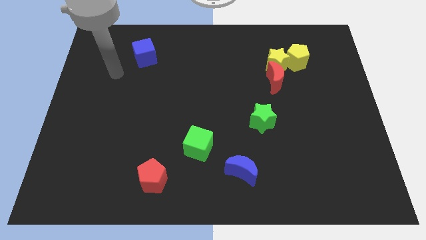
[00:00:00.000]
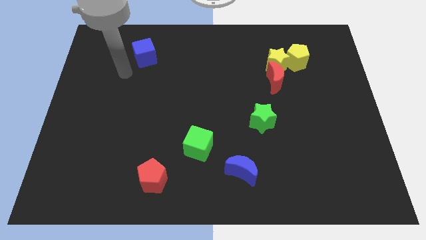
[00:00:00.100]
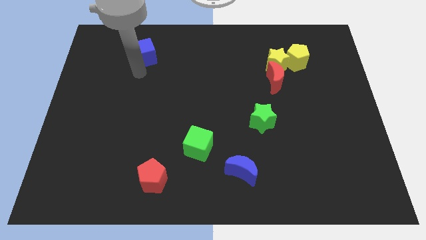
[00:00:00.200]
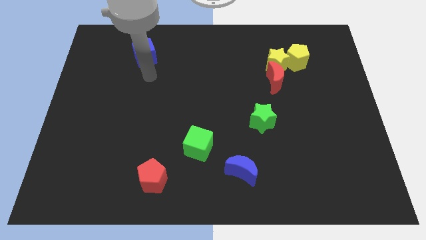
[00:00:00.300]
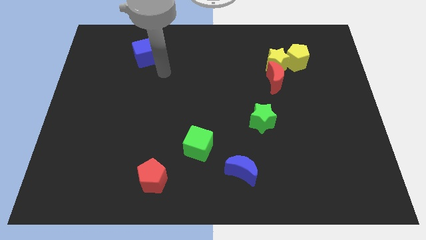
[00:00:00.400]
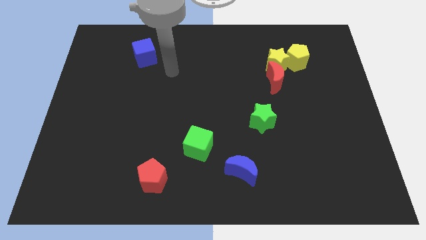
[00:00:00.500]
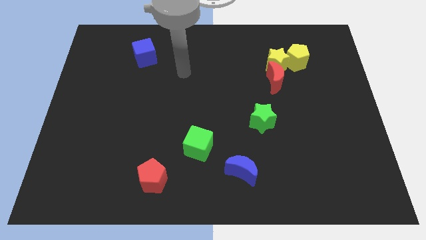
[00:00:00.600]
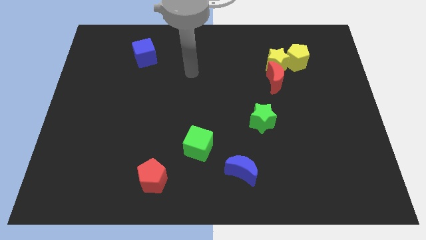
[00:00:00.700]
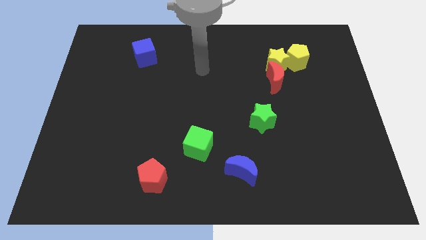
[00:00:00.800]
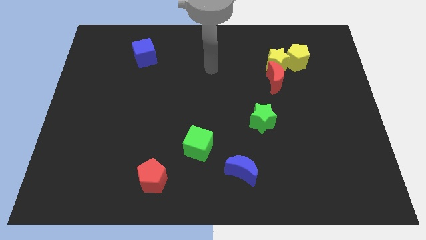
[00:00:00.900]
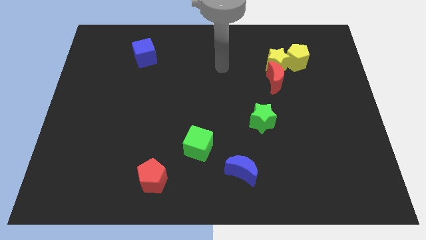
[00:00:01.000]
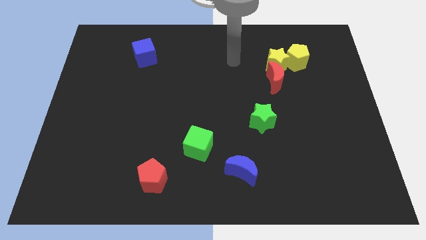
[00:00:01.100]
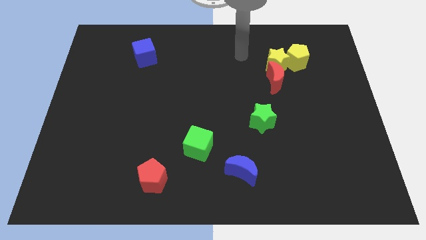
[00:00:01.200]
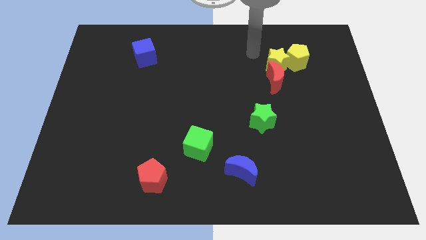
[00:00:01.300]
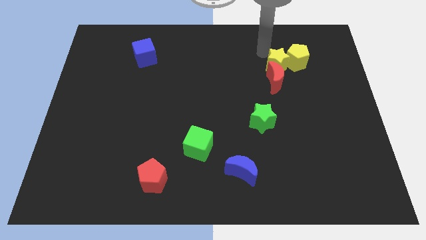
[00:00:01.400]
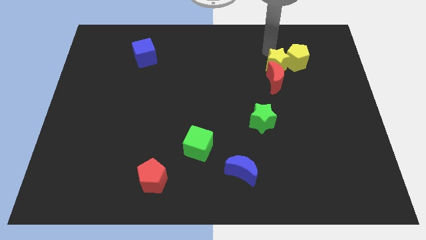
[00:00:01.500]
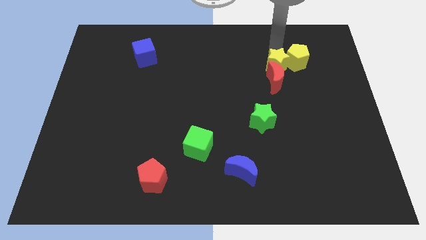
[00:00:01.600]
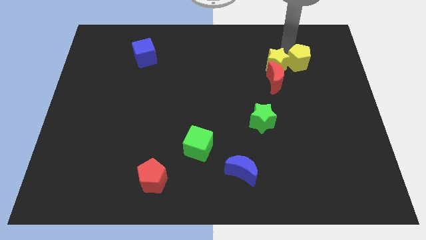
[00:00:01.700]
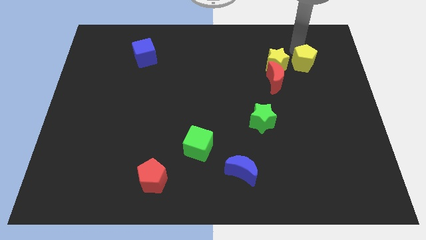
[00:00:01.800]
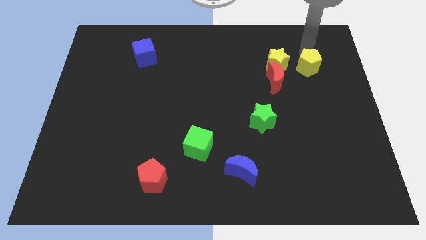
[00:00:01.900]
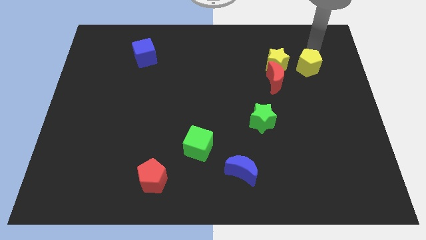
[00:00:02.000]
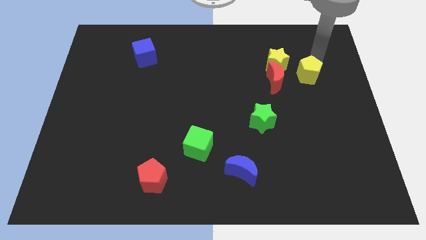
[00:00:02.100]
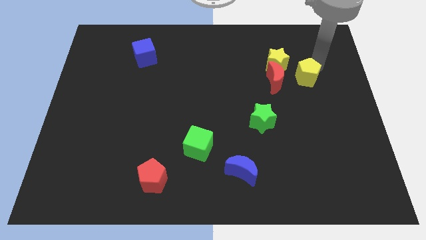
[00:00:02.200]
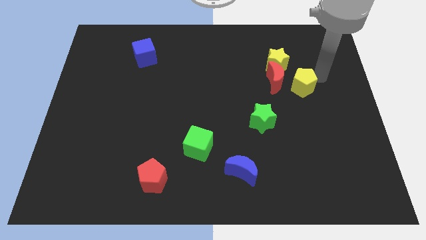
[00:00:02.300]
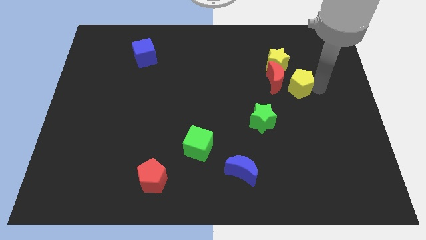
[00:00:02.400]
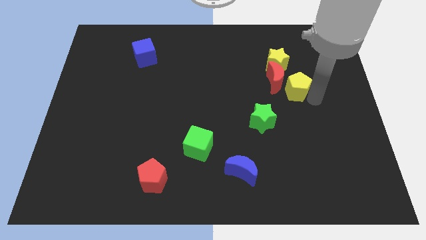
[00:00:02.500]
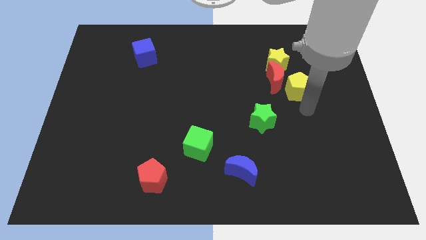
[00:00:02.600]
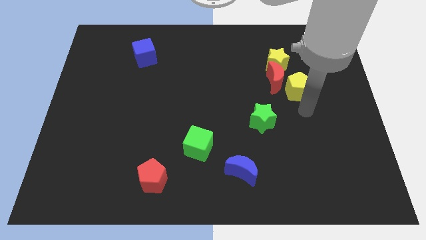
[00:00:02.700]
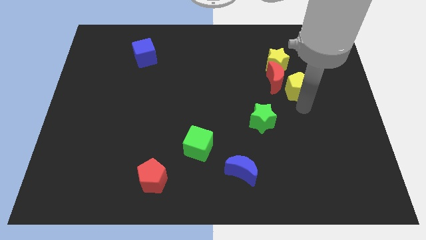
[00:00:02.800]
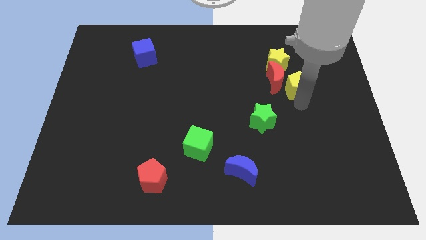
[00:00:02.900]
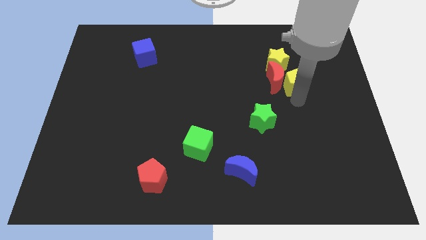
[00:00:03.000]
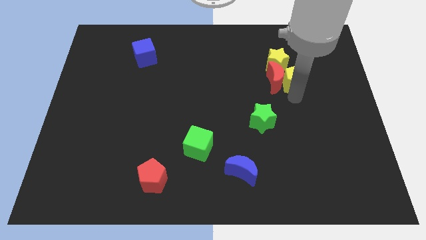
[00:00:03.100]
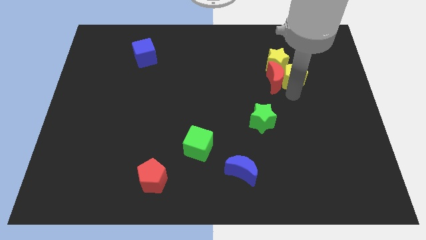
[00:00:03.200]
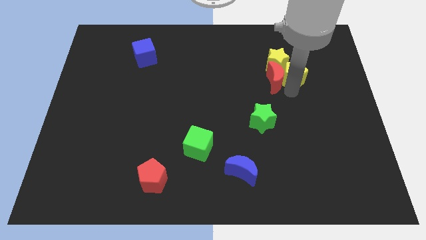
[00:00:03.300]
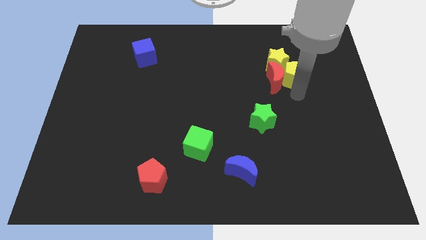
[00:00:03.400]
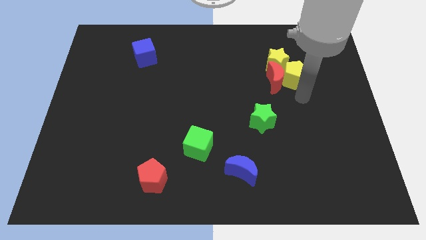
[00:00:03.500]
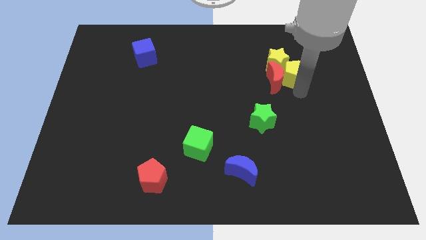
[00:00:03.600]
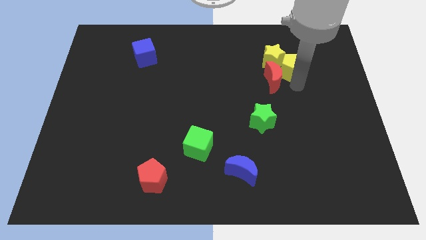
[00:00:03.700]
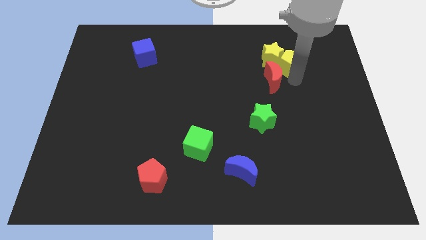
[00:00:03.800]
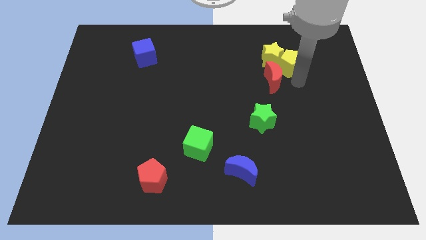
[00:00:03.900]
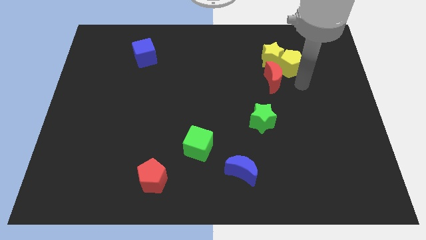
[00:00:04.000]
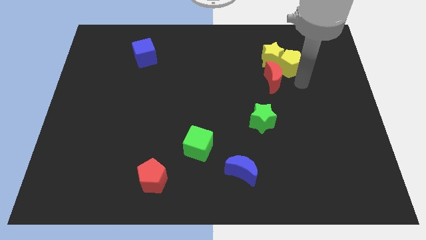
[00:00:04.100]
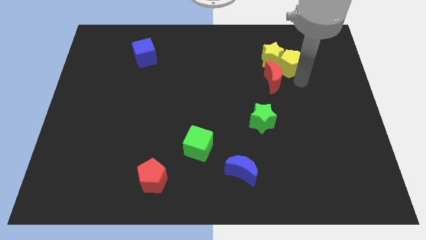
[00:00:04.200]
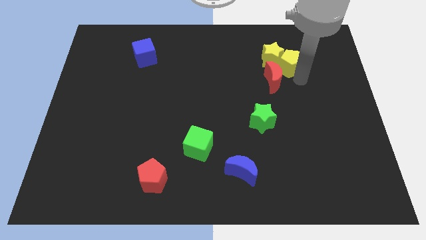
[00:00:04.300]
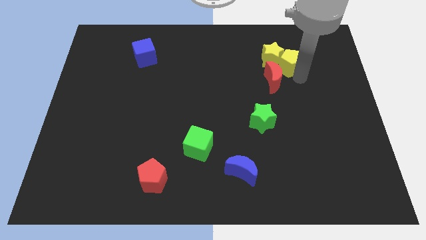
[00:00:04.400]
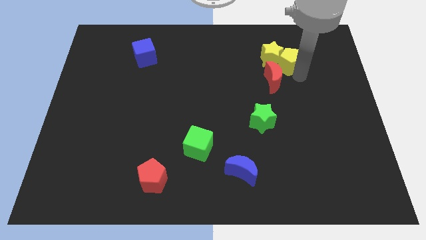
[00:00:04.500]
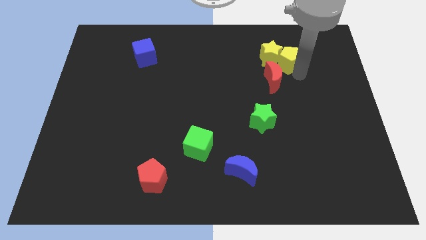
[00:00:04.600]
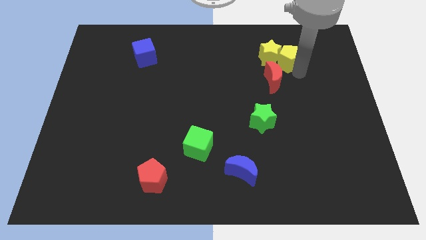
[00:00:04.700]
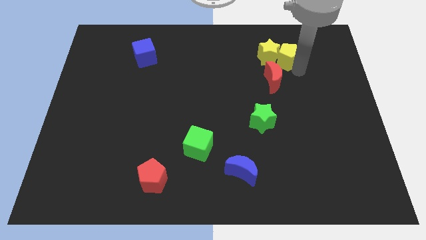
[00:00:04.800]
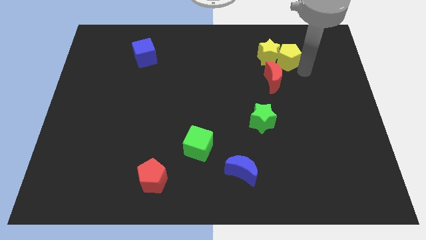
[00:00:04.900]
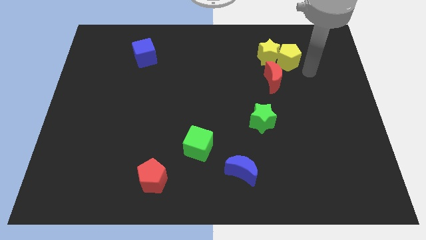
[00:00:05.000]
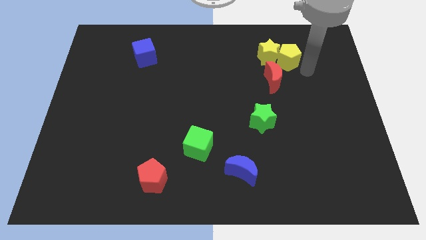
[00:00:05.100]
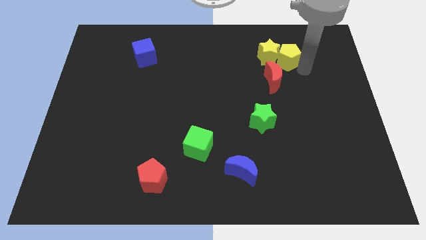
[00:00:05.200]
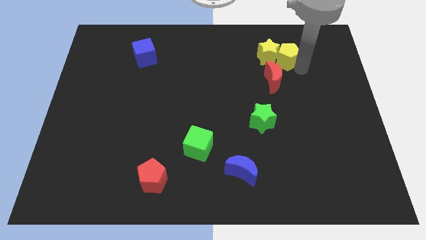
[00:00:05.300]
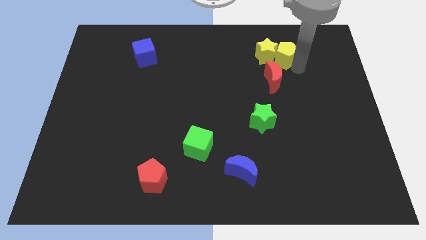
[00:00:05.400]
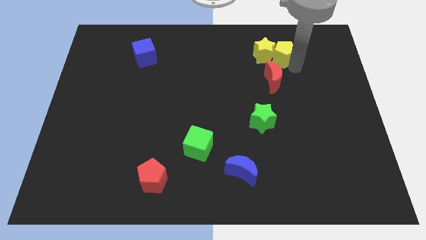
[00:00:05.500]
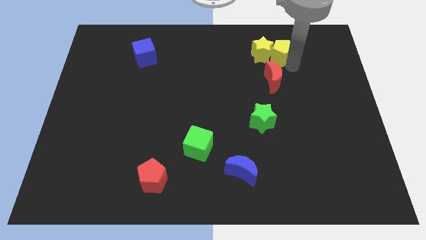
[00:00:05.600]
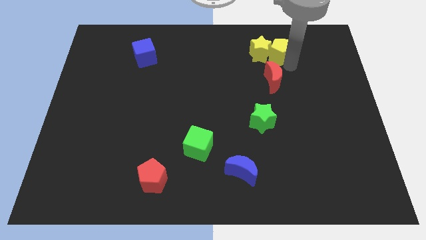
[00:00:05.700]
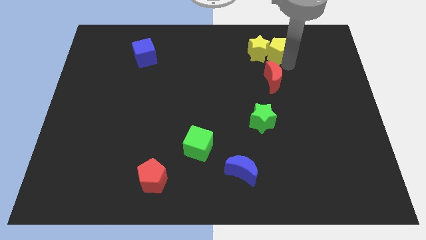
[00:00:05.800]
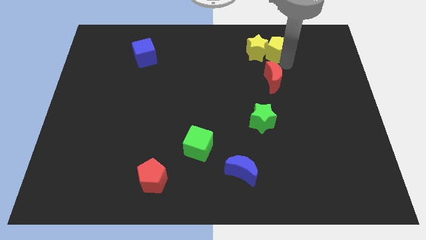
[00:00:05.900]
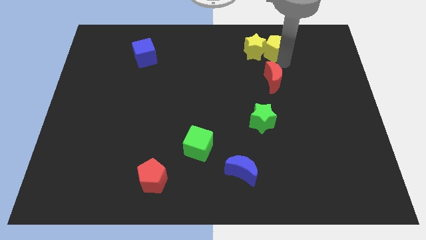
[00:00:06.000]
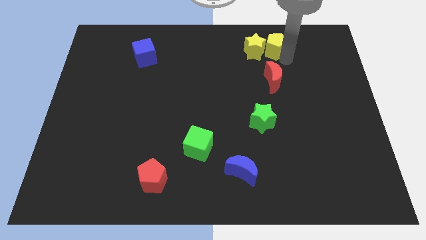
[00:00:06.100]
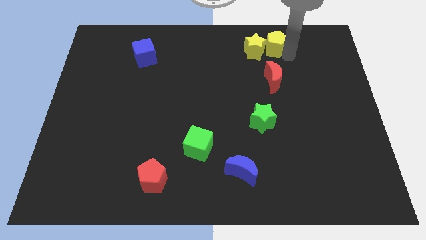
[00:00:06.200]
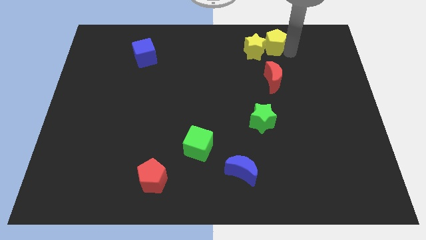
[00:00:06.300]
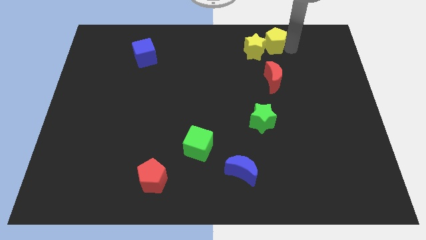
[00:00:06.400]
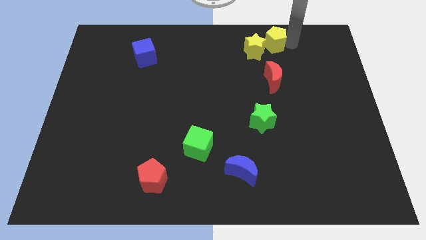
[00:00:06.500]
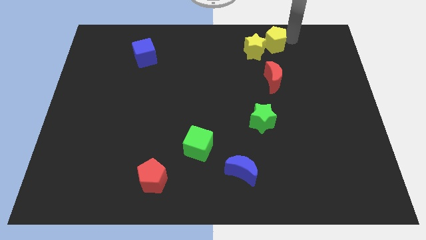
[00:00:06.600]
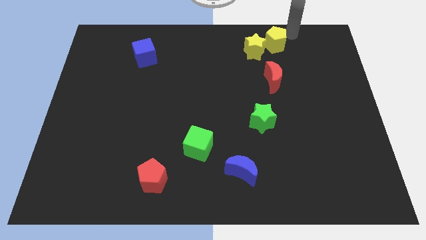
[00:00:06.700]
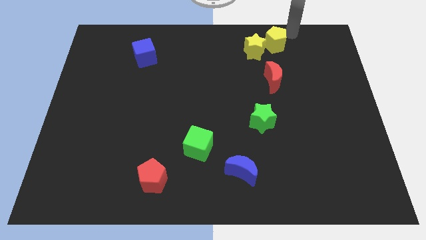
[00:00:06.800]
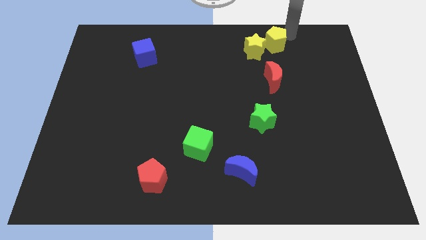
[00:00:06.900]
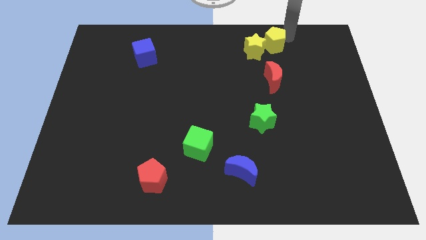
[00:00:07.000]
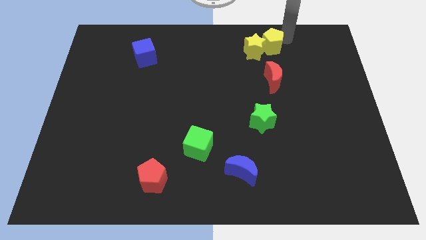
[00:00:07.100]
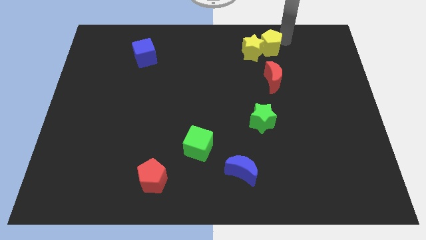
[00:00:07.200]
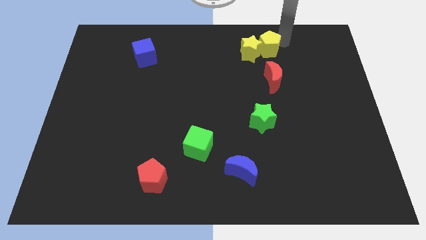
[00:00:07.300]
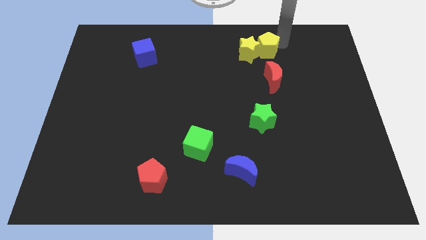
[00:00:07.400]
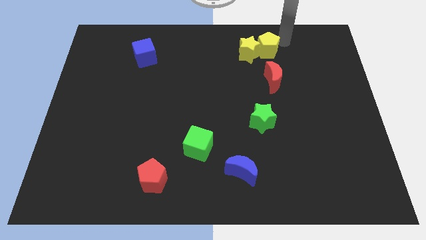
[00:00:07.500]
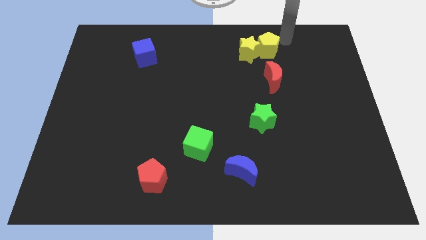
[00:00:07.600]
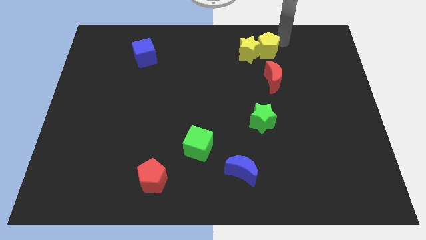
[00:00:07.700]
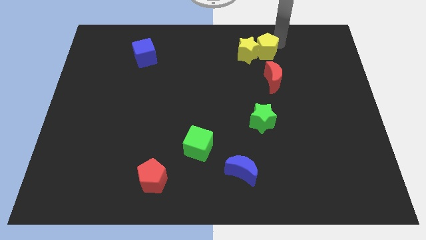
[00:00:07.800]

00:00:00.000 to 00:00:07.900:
move the yellow pentagon to the left somewhat
